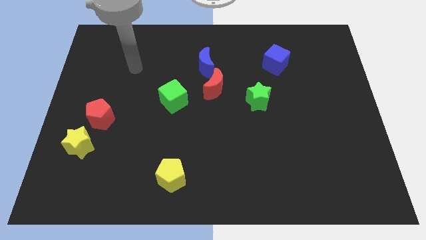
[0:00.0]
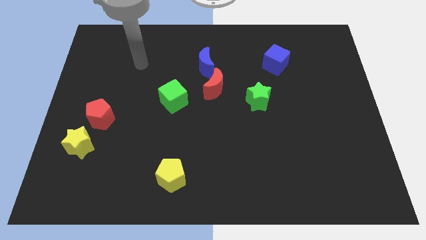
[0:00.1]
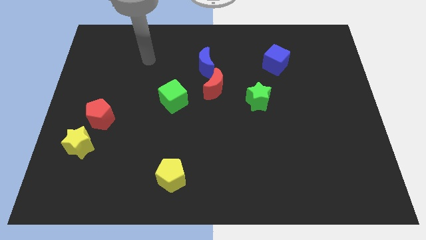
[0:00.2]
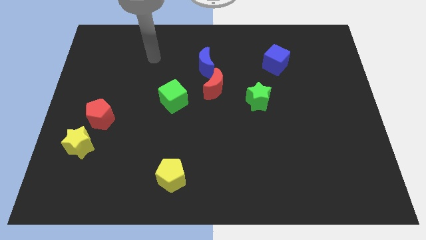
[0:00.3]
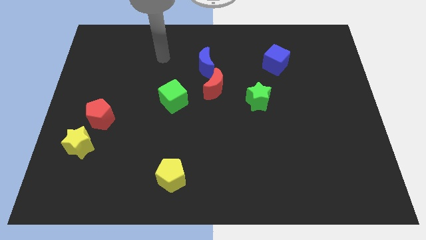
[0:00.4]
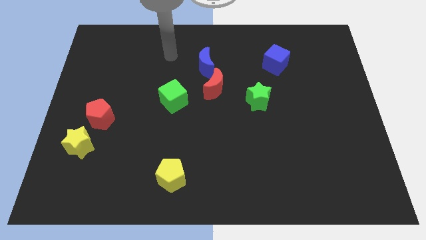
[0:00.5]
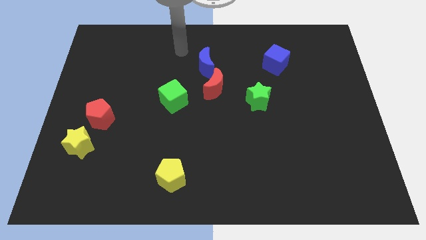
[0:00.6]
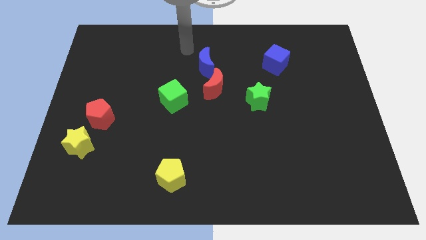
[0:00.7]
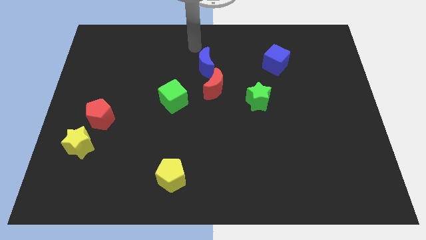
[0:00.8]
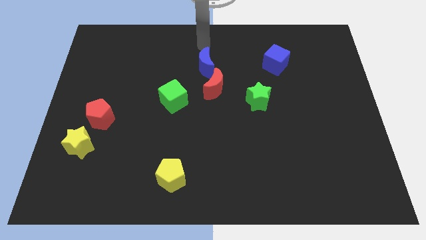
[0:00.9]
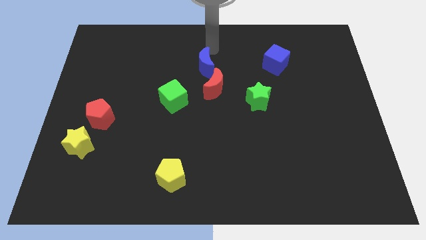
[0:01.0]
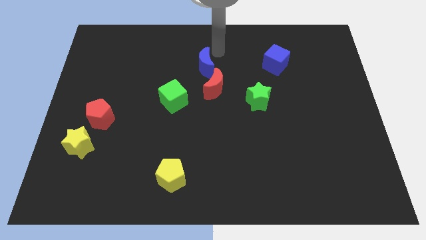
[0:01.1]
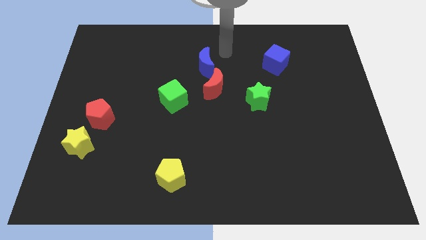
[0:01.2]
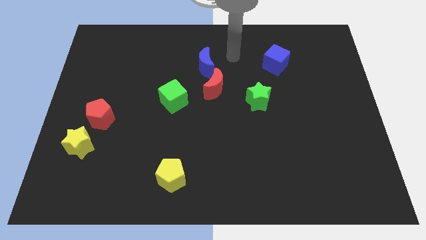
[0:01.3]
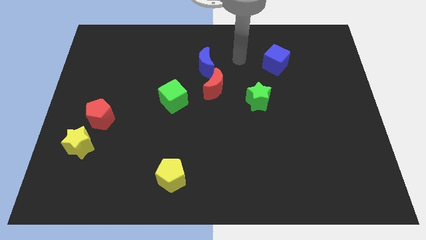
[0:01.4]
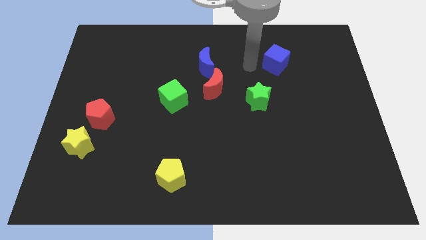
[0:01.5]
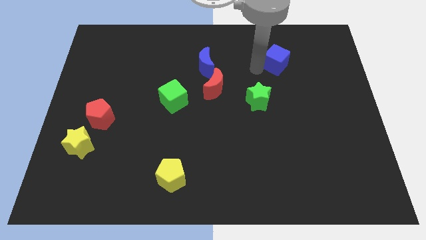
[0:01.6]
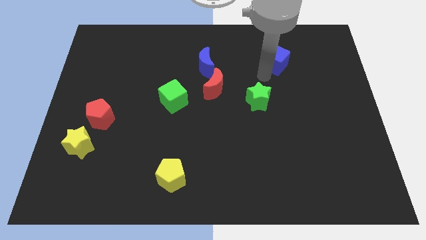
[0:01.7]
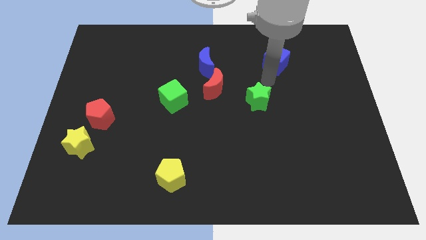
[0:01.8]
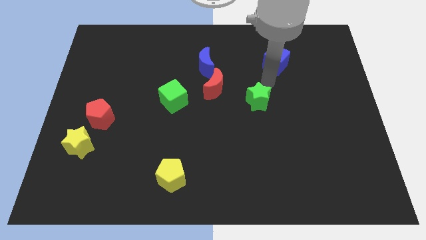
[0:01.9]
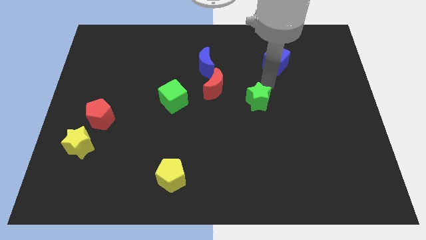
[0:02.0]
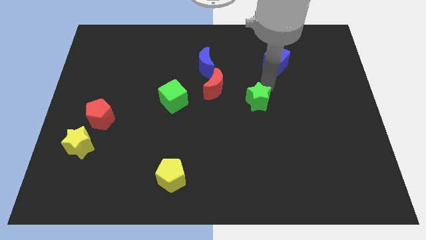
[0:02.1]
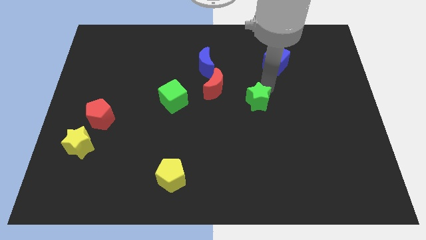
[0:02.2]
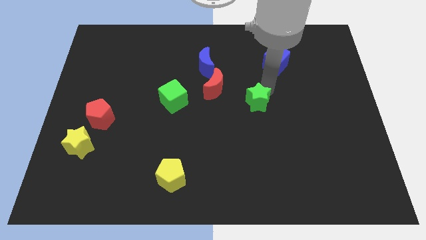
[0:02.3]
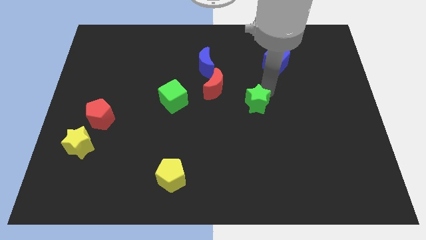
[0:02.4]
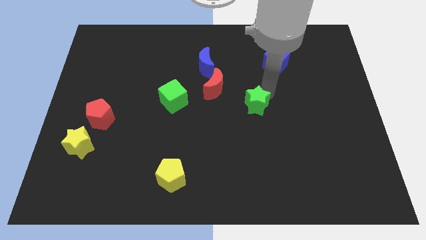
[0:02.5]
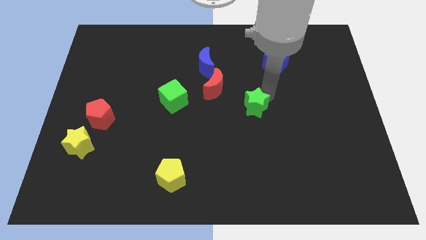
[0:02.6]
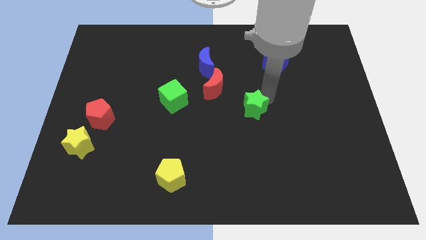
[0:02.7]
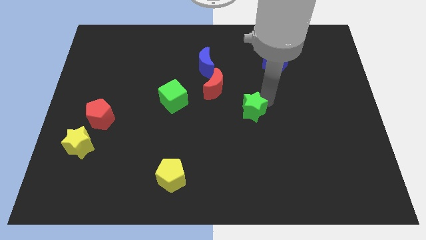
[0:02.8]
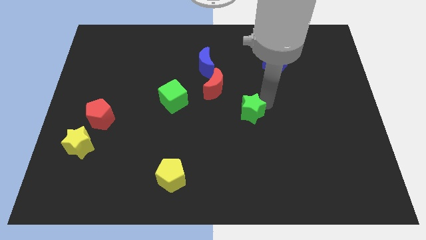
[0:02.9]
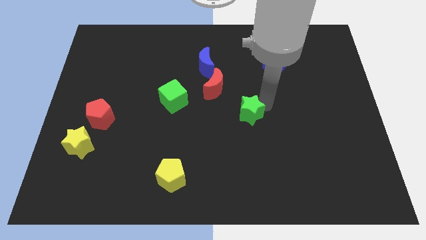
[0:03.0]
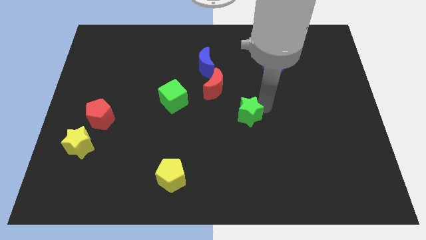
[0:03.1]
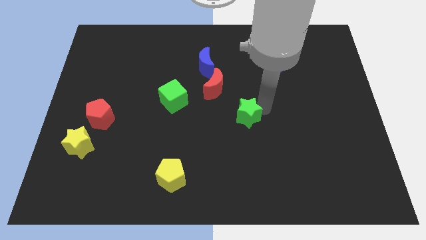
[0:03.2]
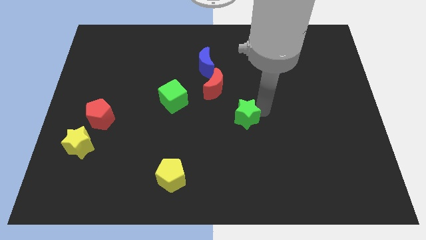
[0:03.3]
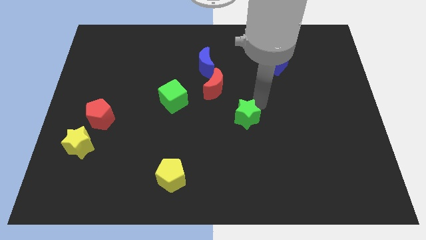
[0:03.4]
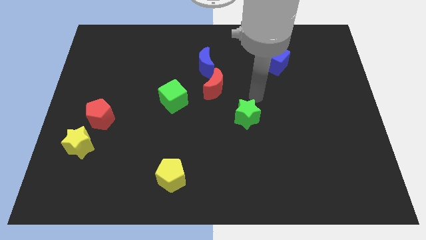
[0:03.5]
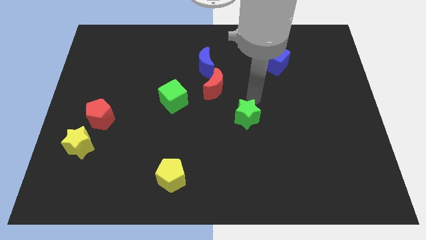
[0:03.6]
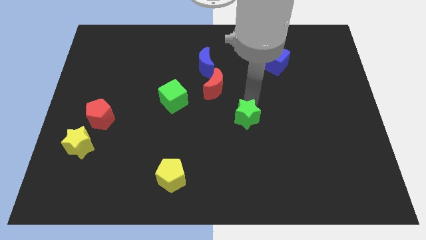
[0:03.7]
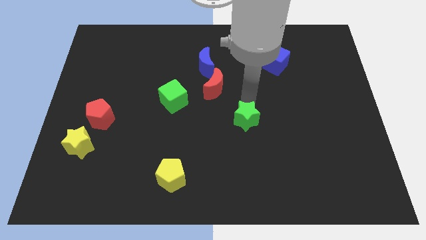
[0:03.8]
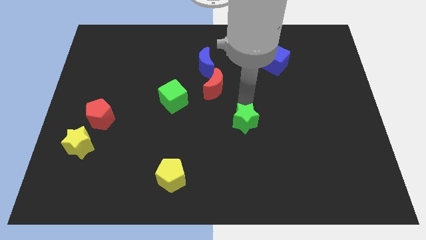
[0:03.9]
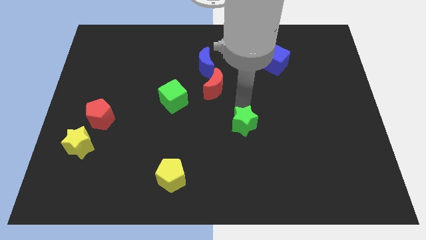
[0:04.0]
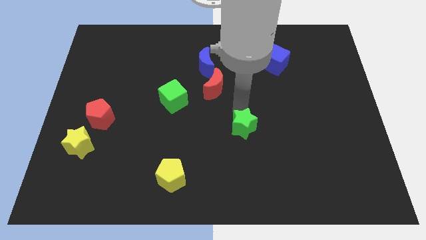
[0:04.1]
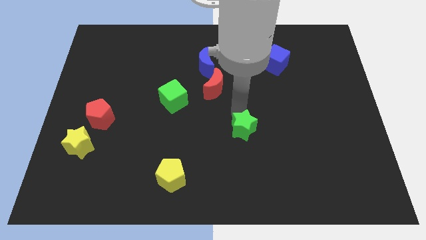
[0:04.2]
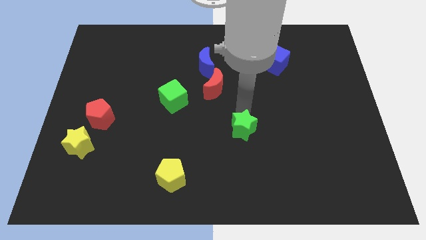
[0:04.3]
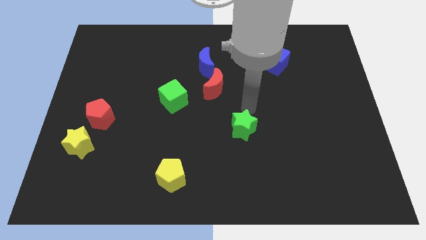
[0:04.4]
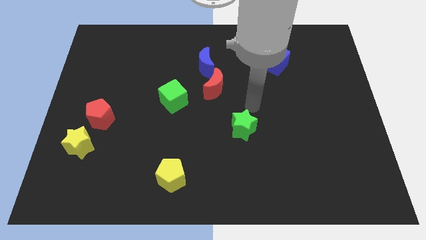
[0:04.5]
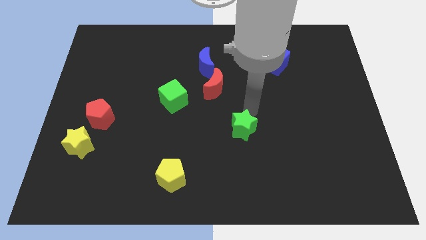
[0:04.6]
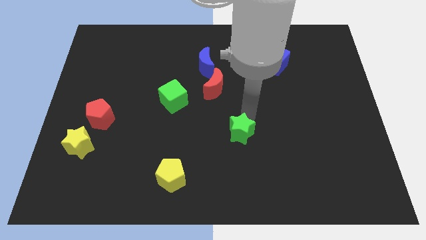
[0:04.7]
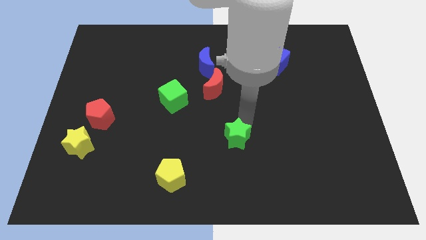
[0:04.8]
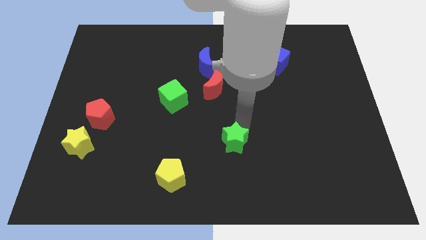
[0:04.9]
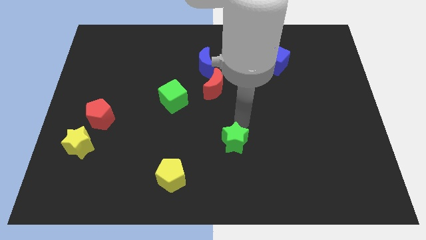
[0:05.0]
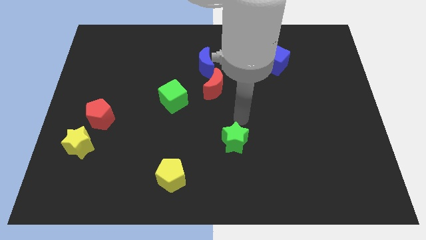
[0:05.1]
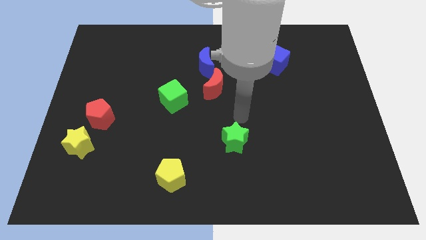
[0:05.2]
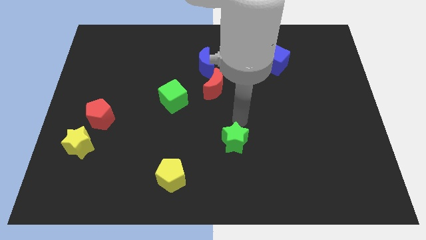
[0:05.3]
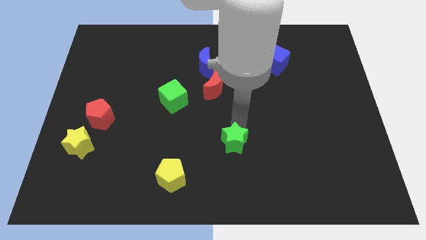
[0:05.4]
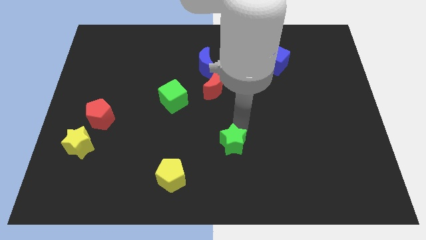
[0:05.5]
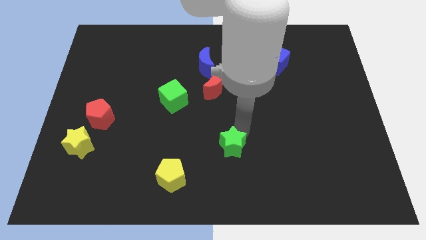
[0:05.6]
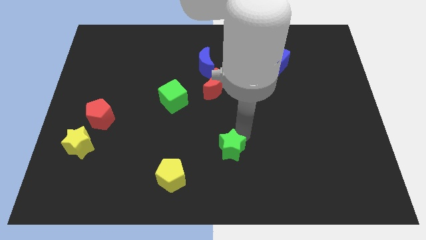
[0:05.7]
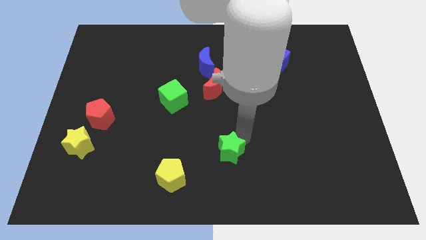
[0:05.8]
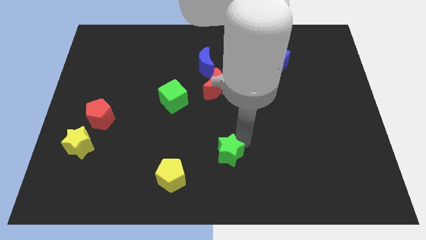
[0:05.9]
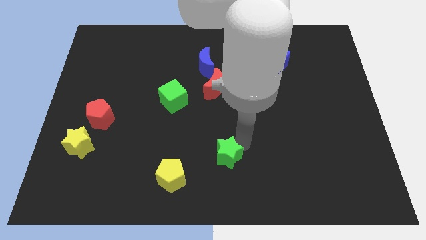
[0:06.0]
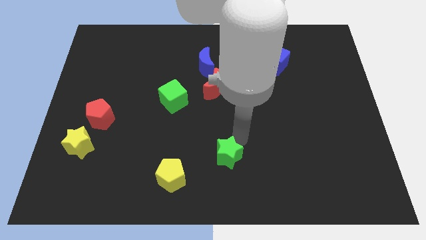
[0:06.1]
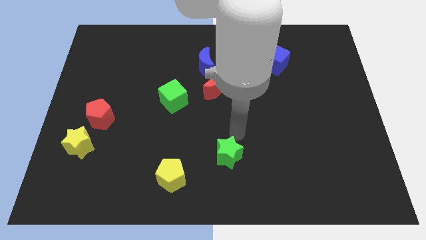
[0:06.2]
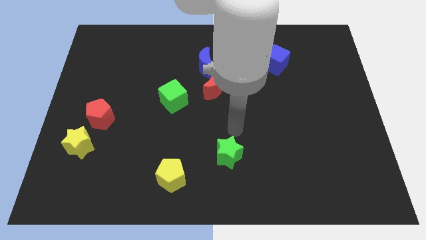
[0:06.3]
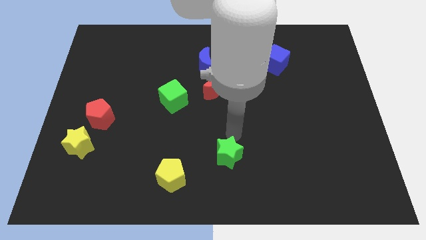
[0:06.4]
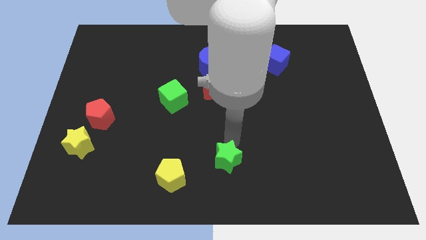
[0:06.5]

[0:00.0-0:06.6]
push the green star to the right of the yellow pentagon
